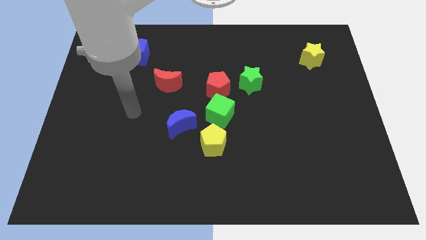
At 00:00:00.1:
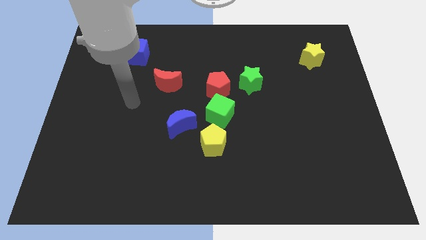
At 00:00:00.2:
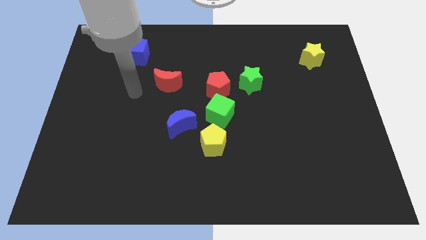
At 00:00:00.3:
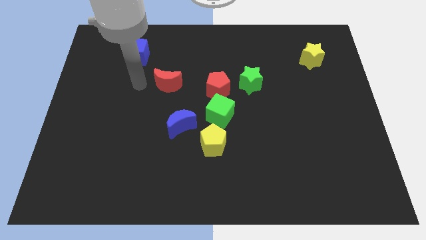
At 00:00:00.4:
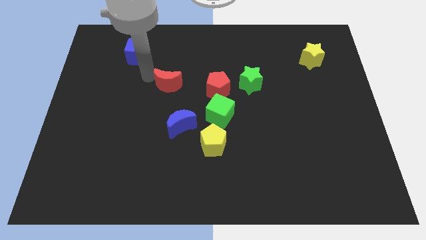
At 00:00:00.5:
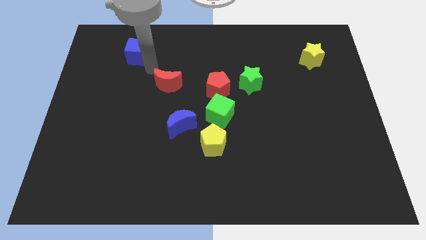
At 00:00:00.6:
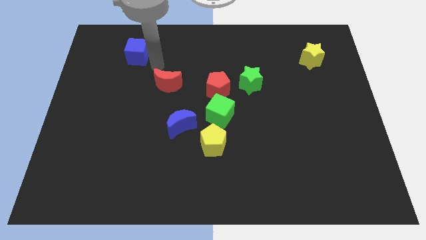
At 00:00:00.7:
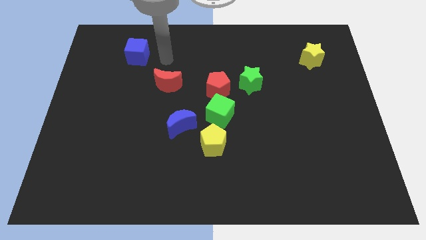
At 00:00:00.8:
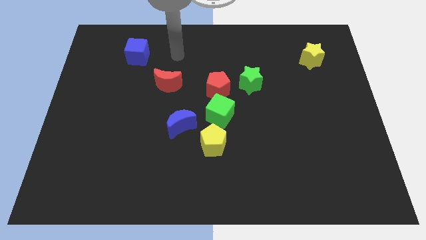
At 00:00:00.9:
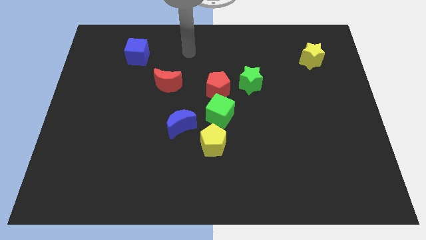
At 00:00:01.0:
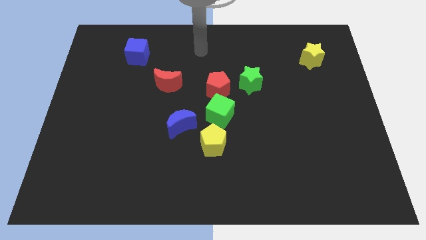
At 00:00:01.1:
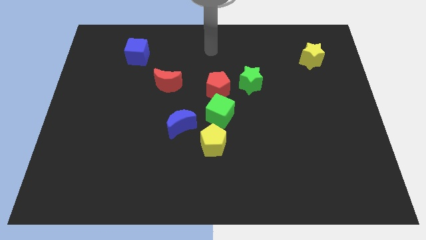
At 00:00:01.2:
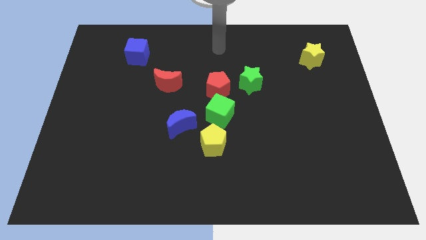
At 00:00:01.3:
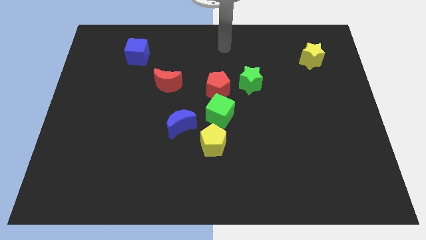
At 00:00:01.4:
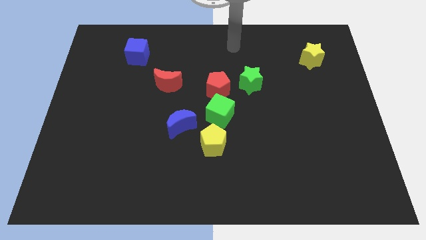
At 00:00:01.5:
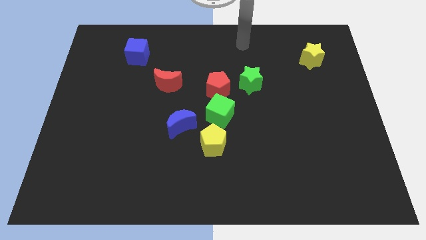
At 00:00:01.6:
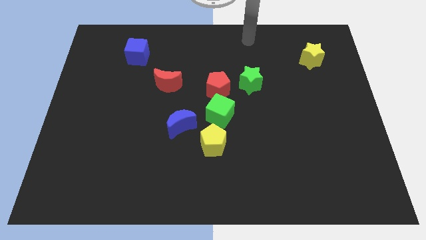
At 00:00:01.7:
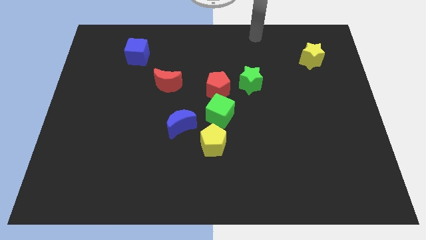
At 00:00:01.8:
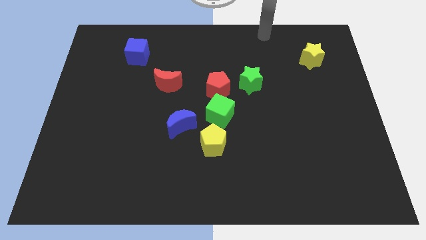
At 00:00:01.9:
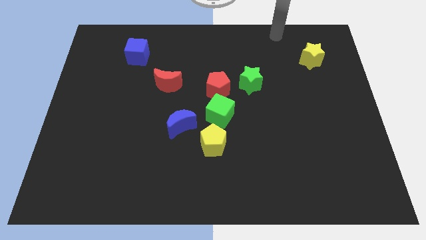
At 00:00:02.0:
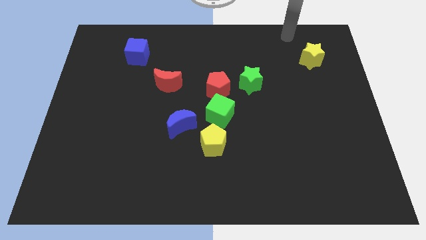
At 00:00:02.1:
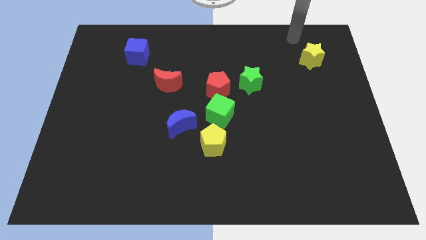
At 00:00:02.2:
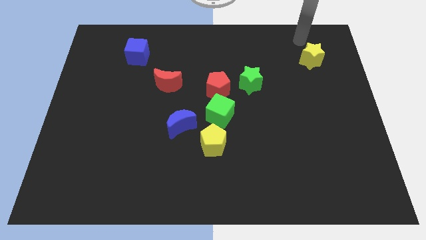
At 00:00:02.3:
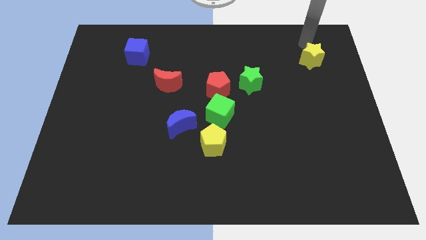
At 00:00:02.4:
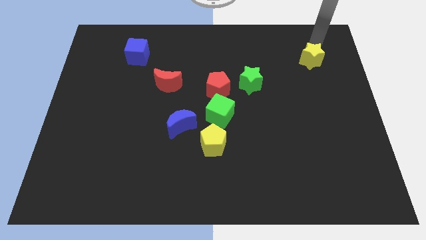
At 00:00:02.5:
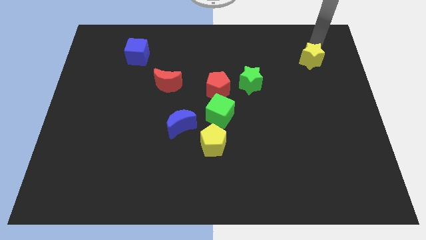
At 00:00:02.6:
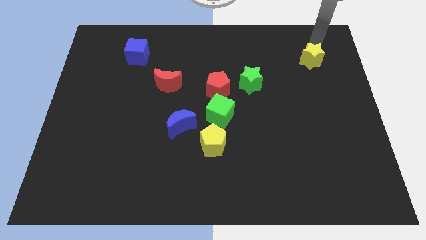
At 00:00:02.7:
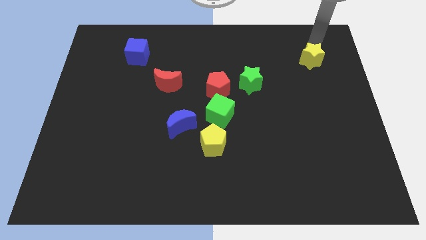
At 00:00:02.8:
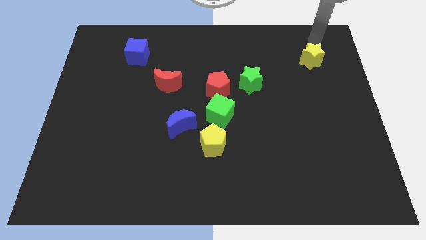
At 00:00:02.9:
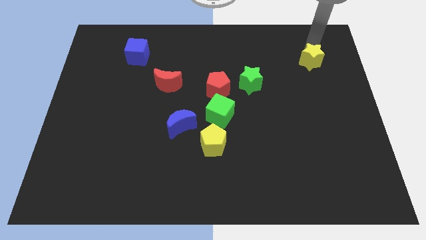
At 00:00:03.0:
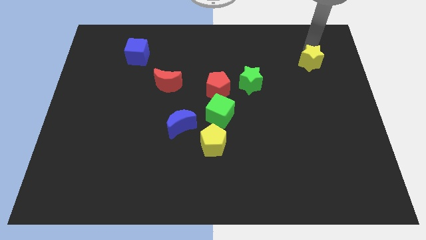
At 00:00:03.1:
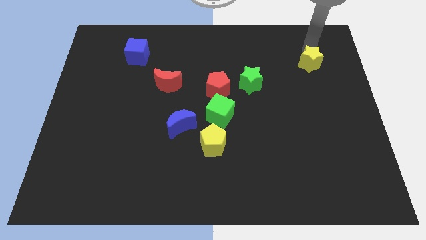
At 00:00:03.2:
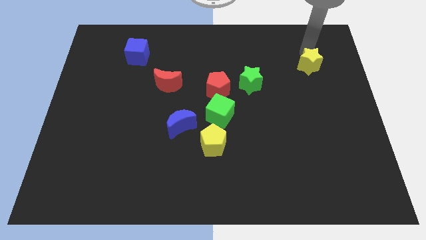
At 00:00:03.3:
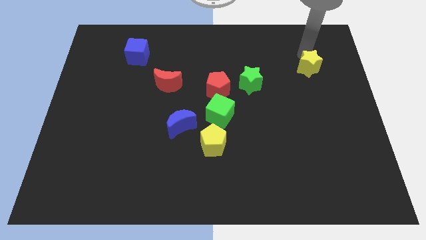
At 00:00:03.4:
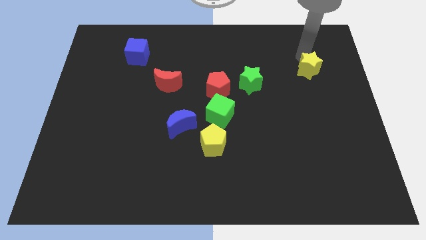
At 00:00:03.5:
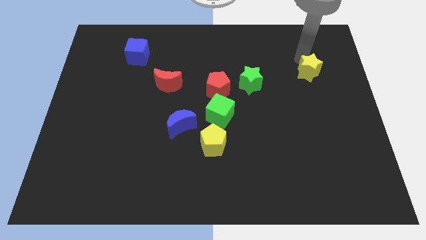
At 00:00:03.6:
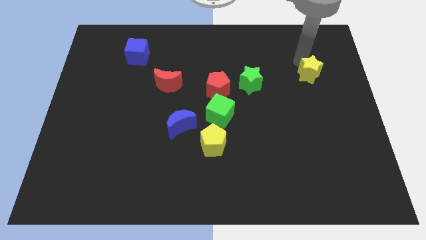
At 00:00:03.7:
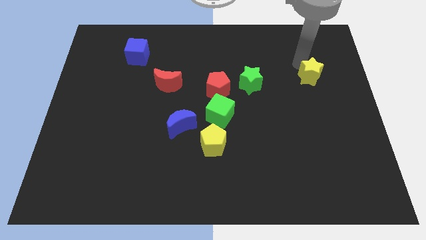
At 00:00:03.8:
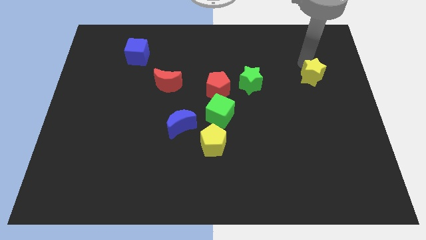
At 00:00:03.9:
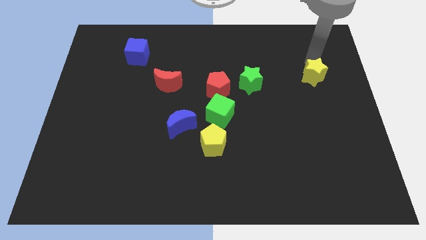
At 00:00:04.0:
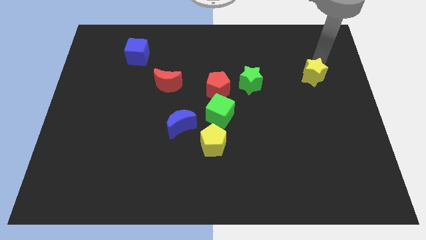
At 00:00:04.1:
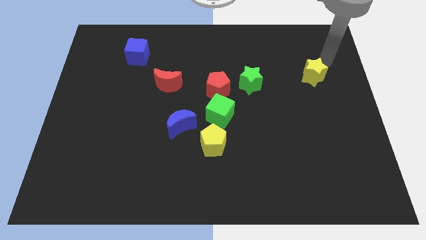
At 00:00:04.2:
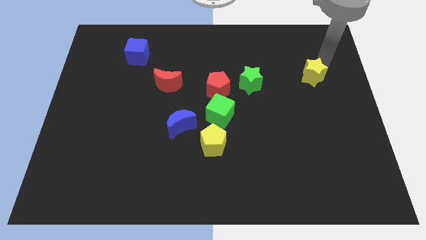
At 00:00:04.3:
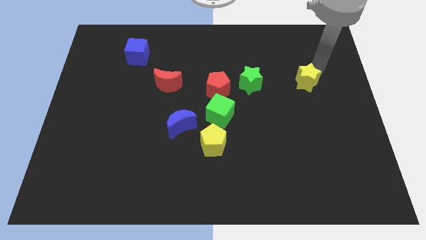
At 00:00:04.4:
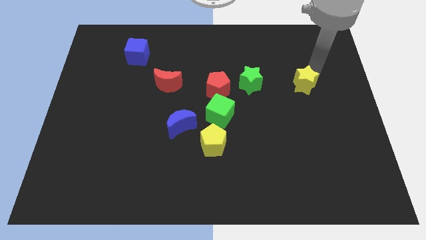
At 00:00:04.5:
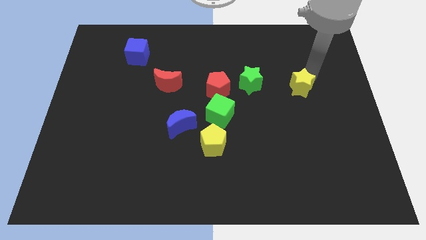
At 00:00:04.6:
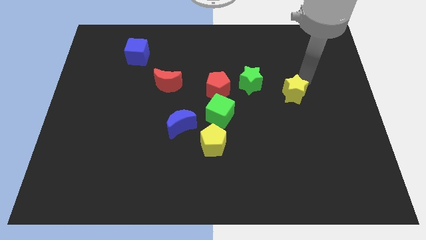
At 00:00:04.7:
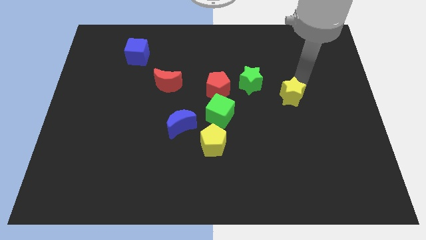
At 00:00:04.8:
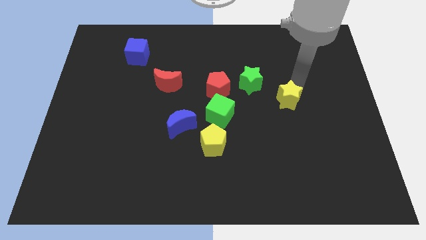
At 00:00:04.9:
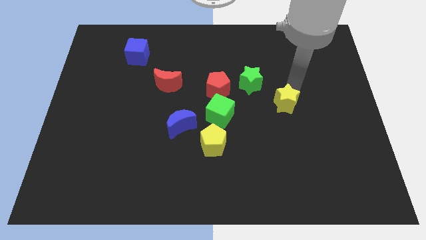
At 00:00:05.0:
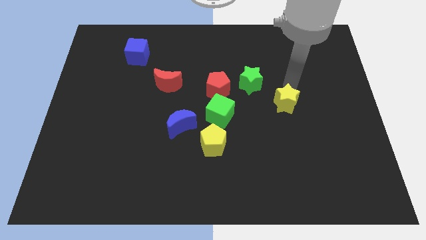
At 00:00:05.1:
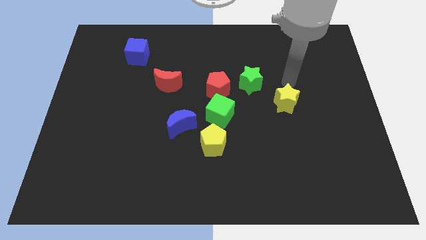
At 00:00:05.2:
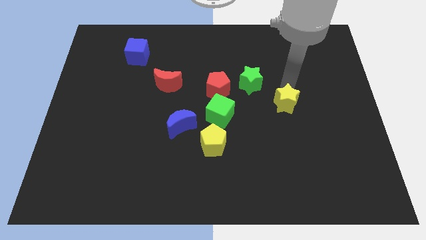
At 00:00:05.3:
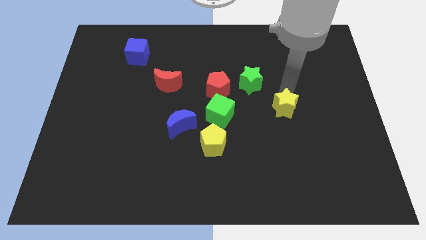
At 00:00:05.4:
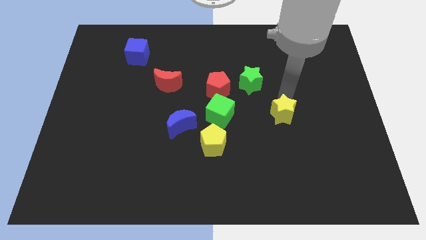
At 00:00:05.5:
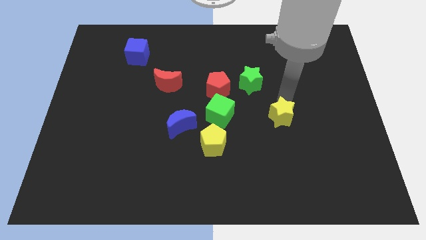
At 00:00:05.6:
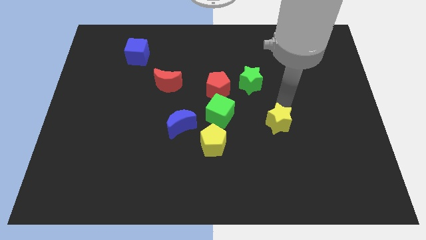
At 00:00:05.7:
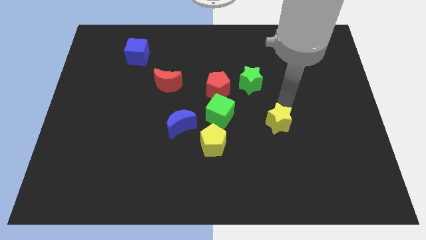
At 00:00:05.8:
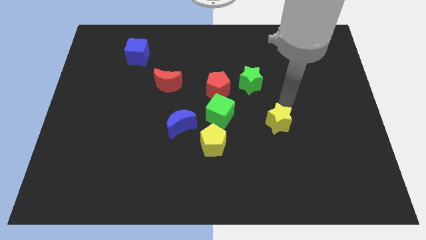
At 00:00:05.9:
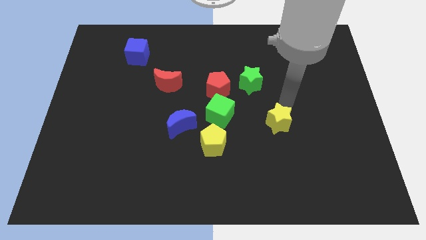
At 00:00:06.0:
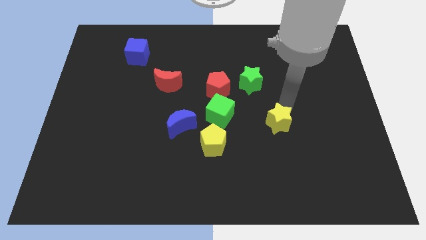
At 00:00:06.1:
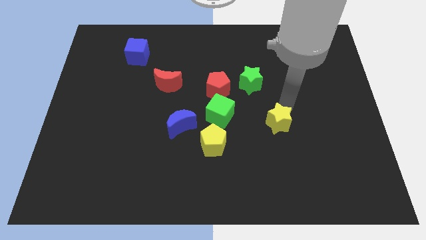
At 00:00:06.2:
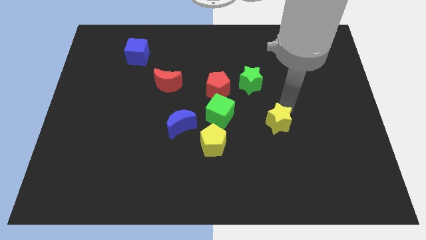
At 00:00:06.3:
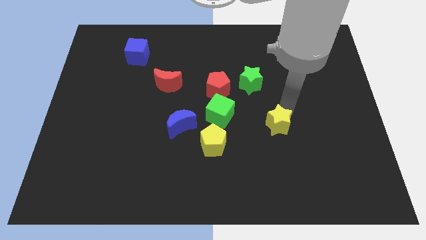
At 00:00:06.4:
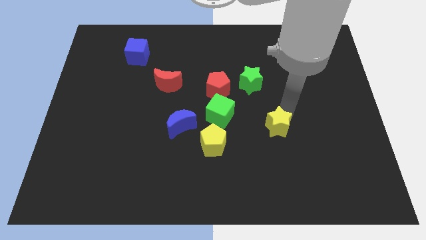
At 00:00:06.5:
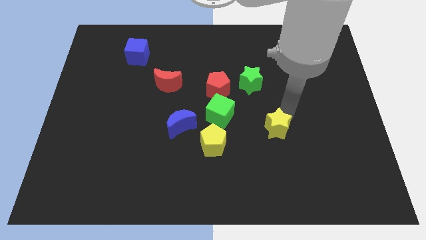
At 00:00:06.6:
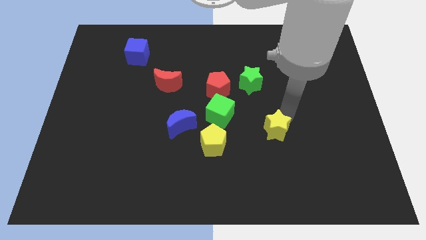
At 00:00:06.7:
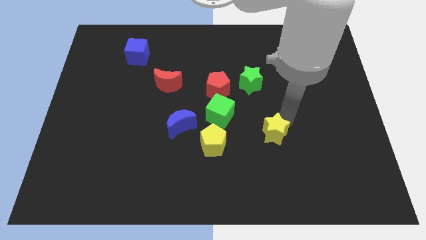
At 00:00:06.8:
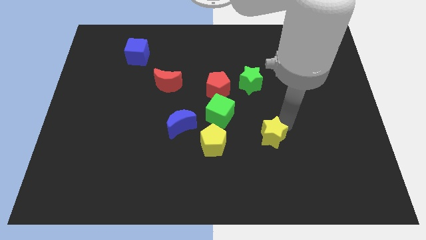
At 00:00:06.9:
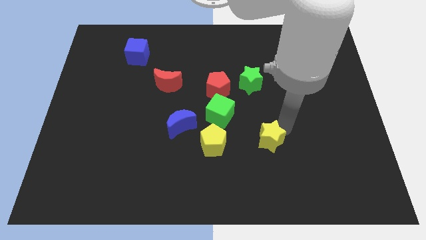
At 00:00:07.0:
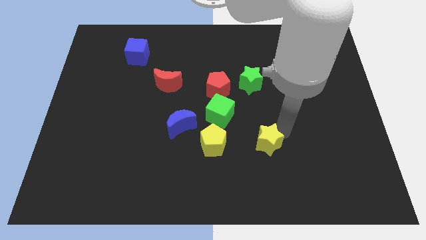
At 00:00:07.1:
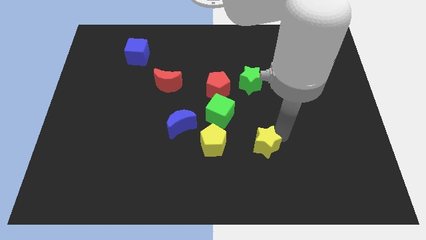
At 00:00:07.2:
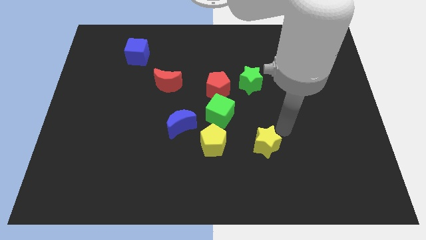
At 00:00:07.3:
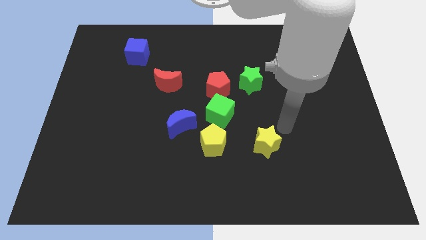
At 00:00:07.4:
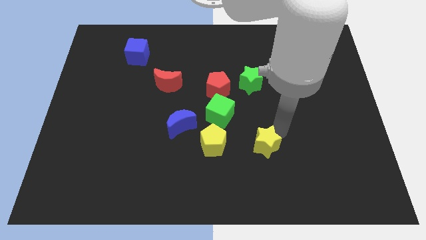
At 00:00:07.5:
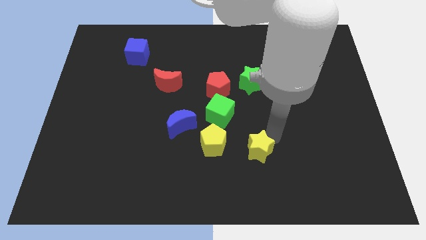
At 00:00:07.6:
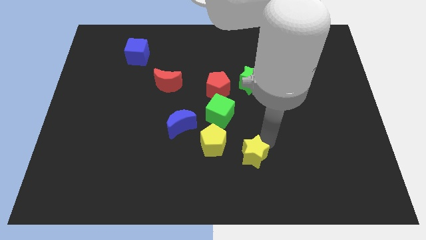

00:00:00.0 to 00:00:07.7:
push the yellow star diagonally down and to the right of the yellow pentagon
